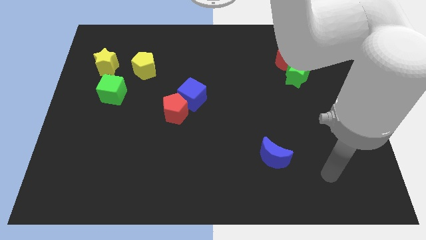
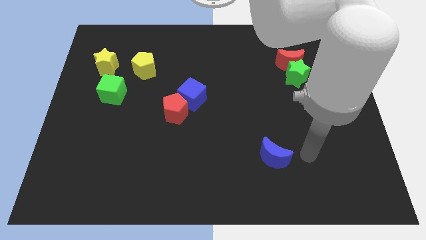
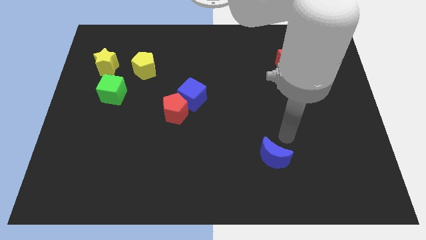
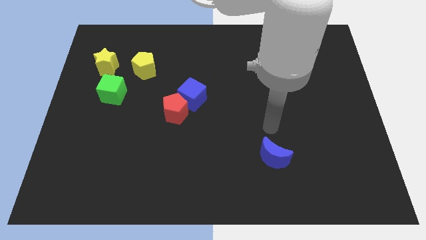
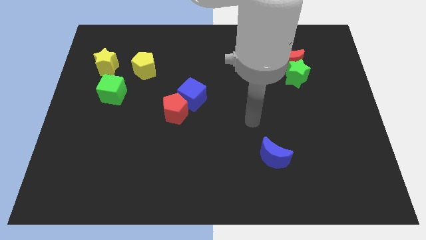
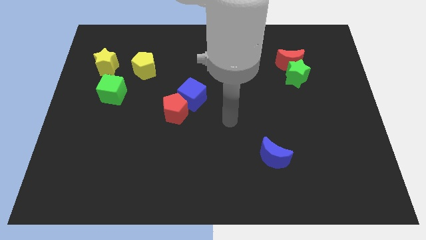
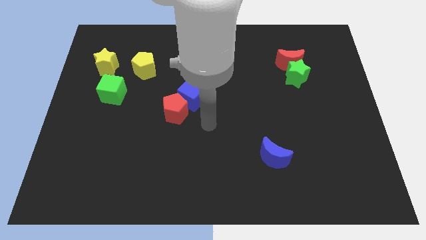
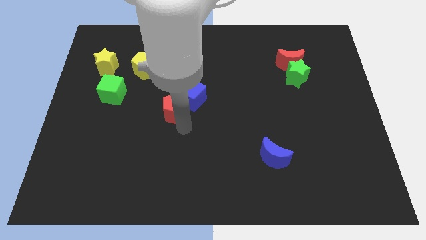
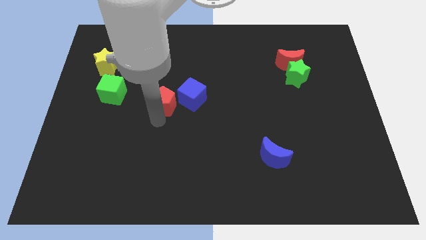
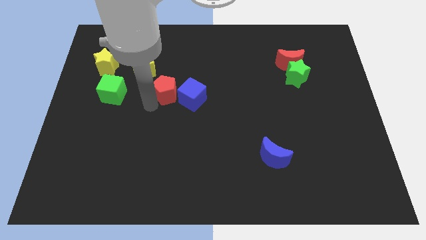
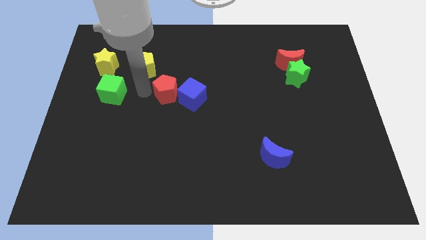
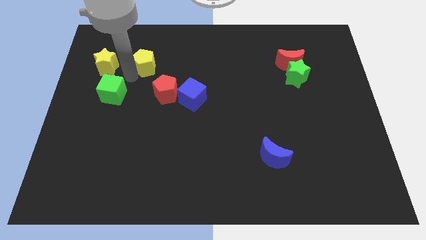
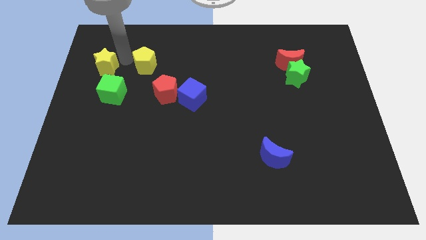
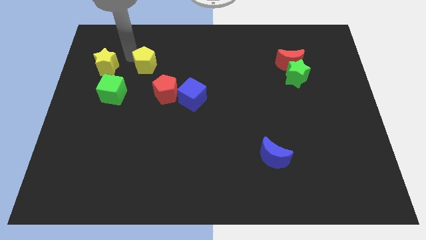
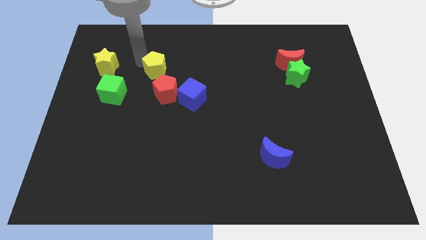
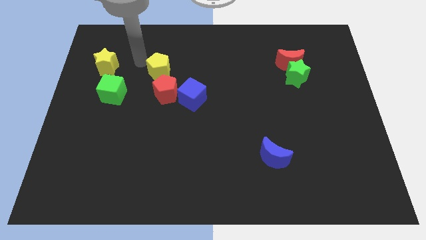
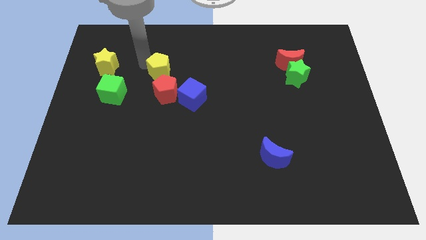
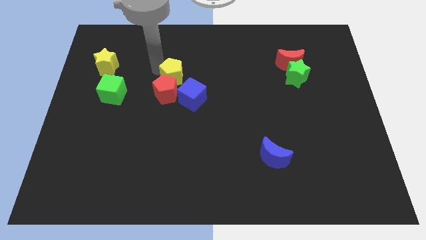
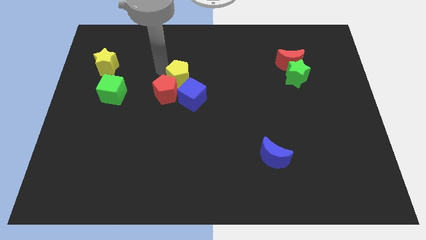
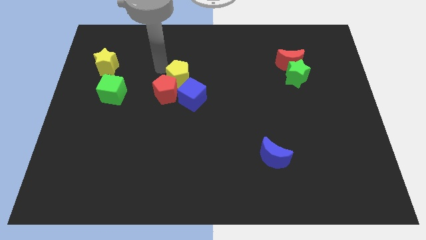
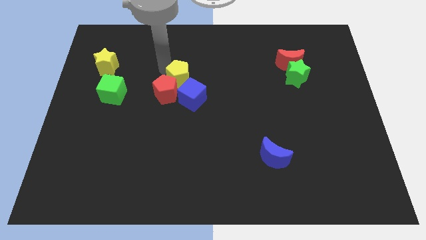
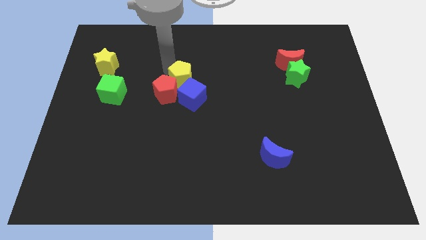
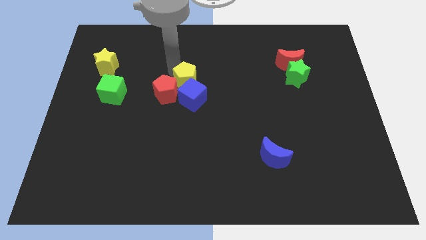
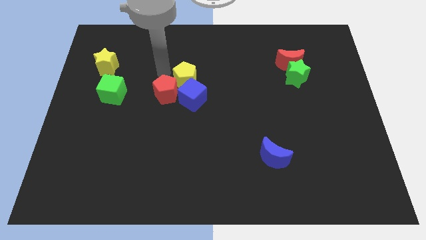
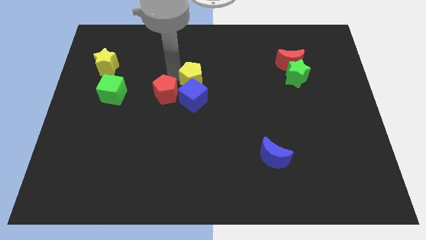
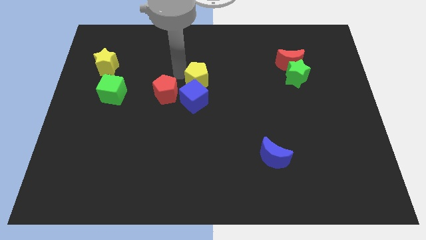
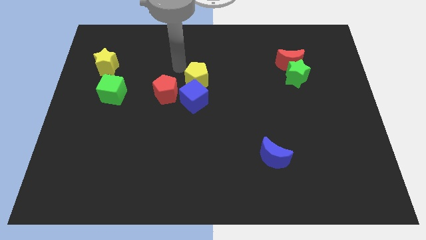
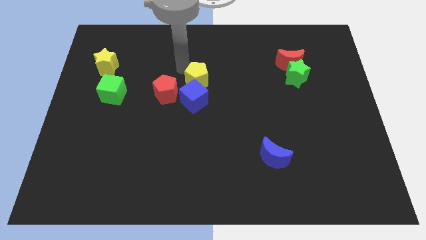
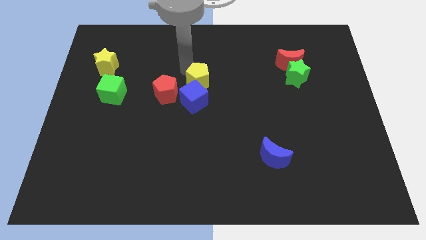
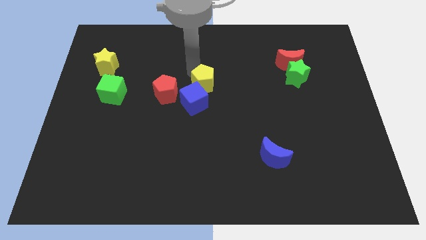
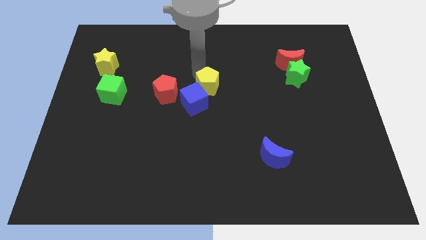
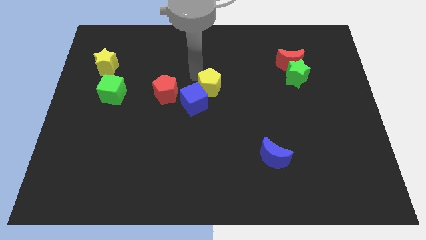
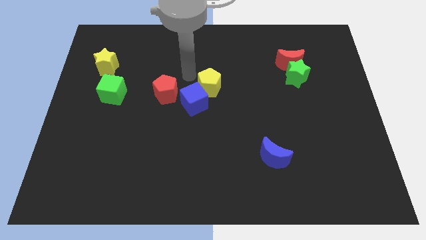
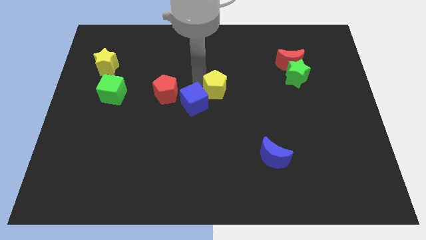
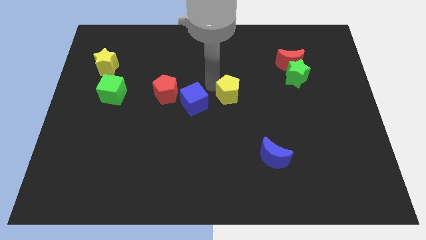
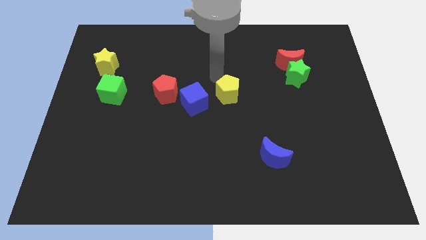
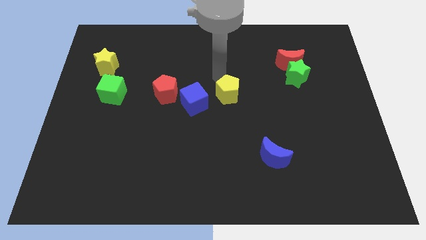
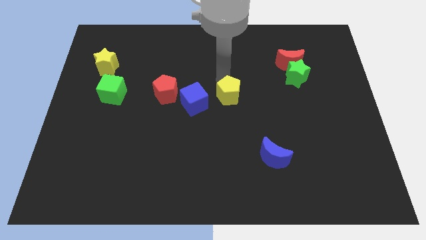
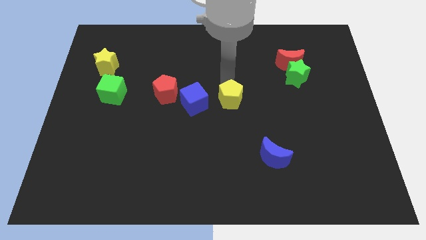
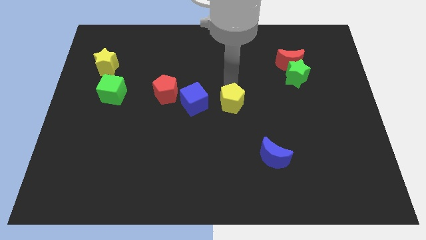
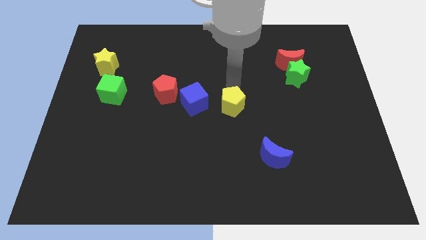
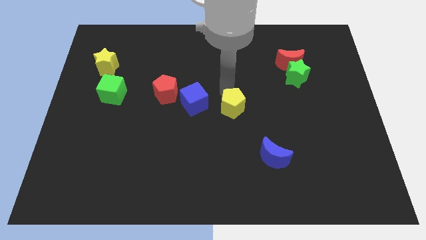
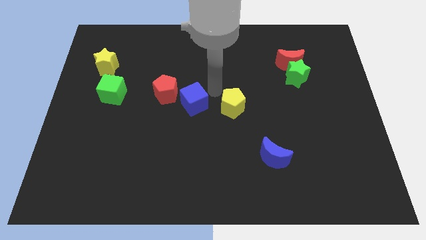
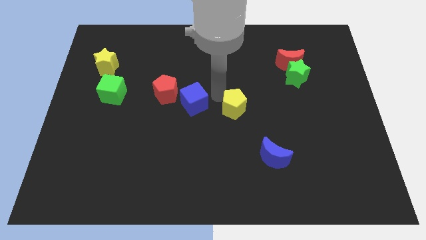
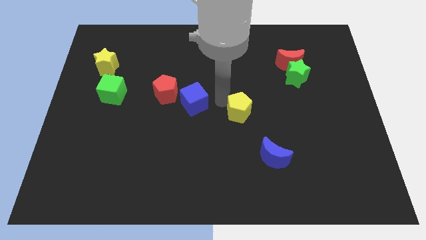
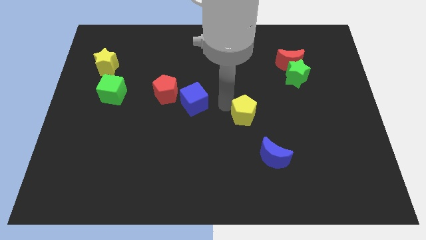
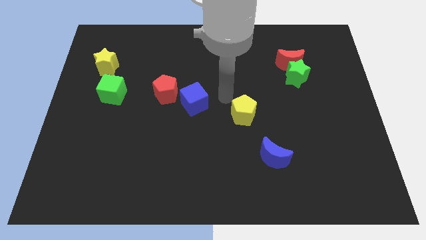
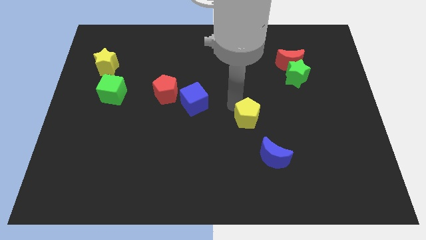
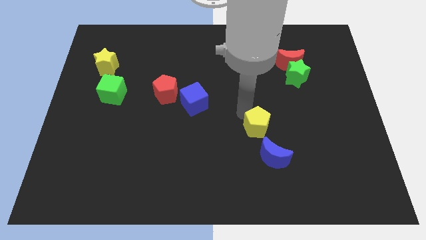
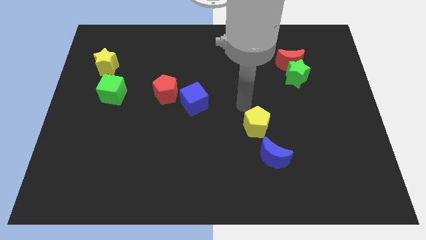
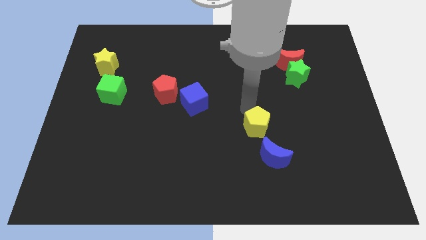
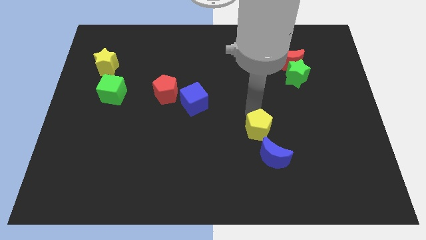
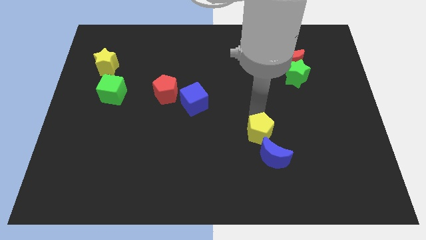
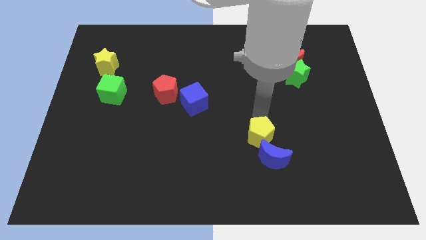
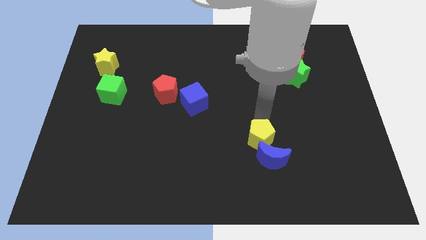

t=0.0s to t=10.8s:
move the yellow pentagon close to the blue moon

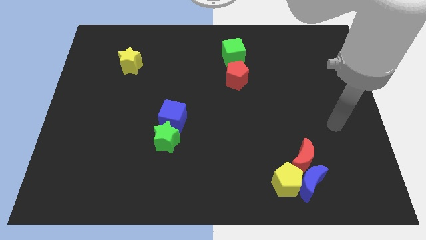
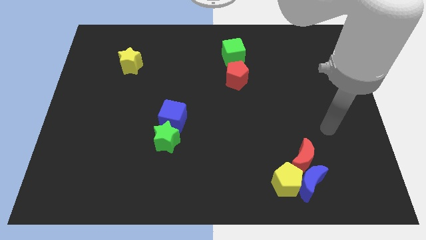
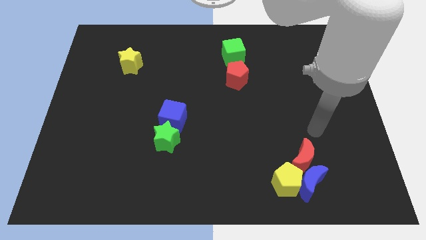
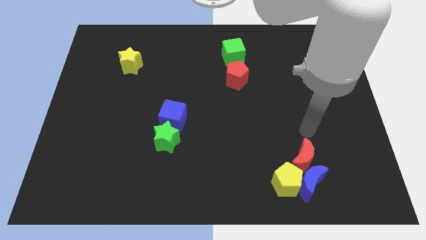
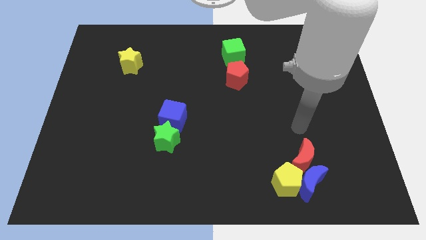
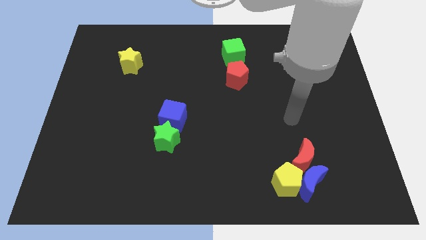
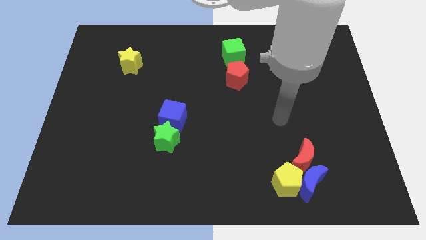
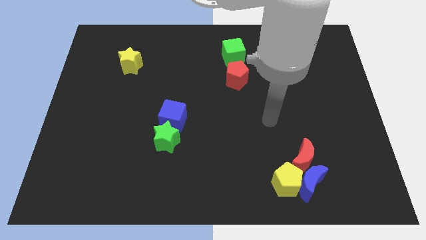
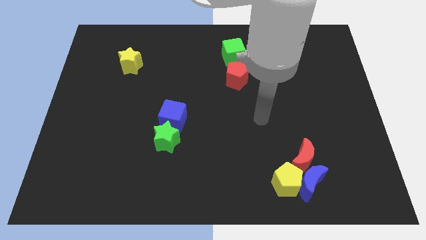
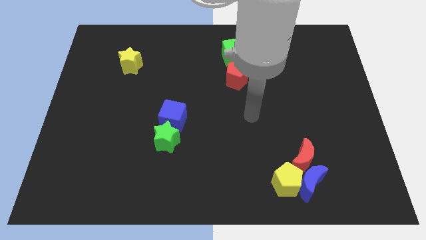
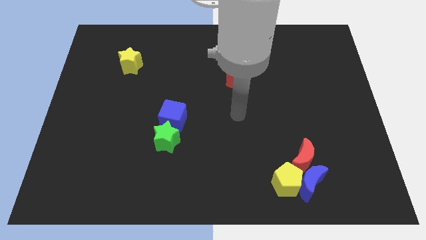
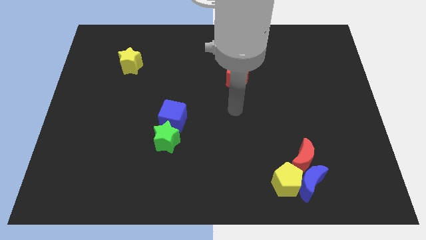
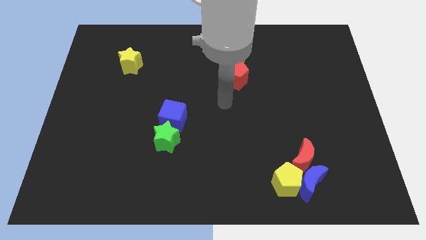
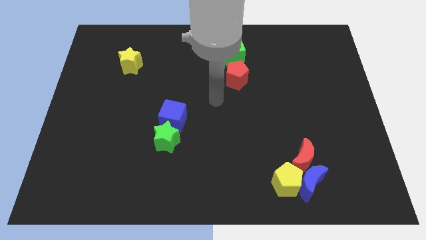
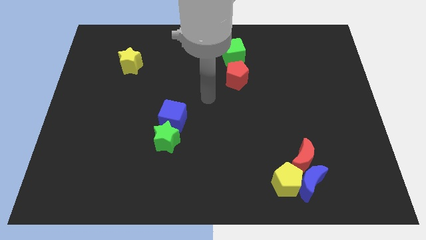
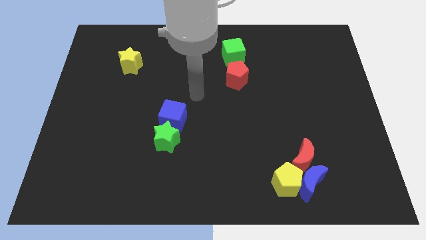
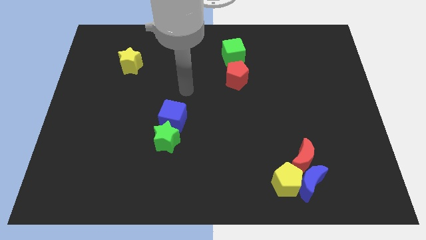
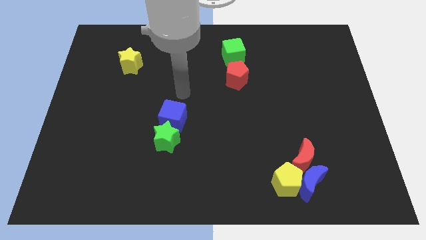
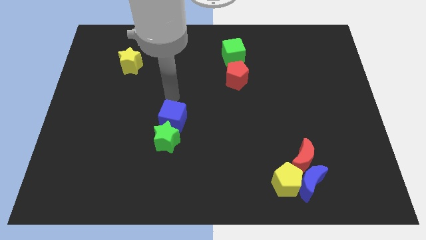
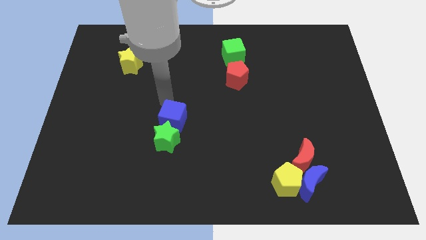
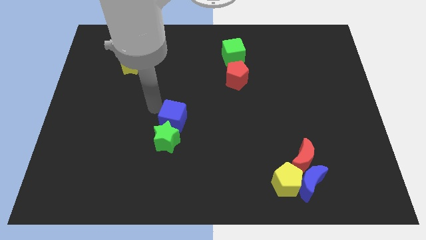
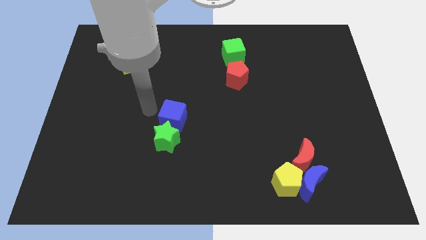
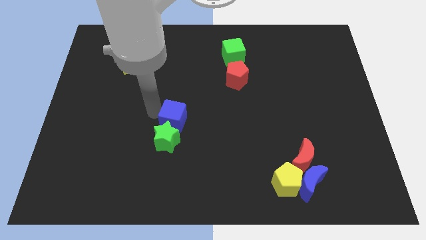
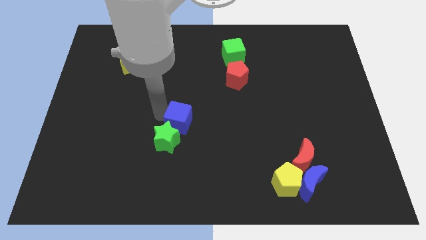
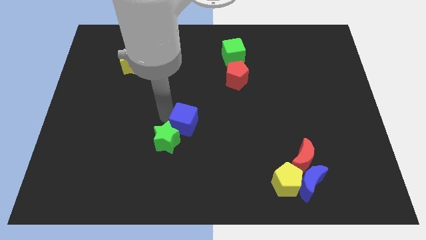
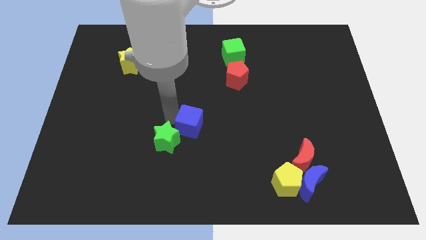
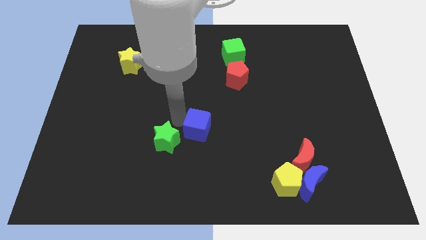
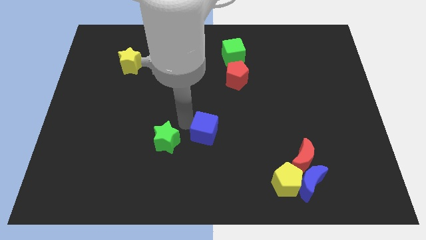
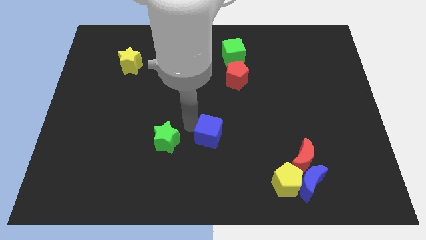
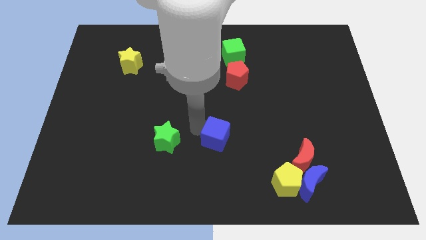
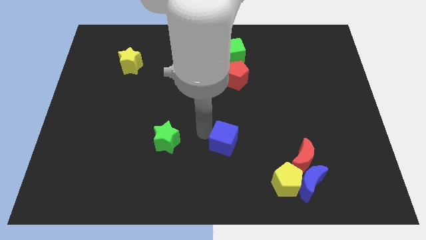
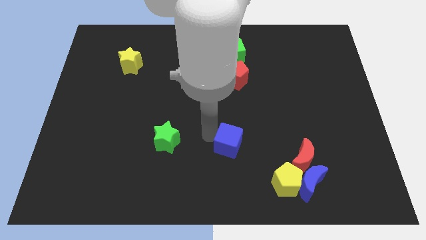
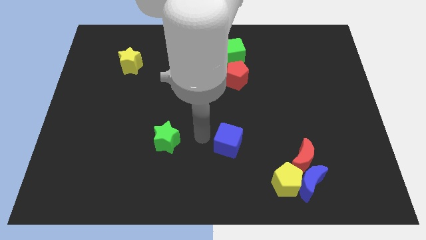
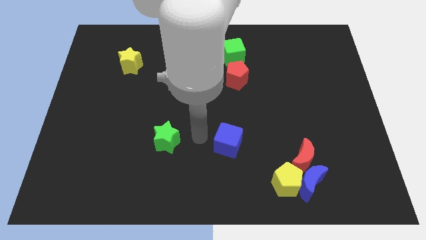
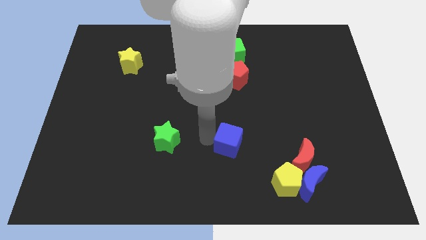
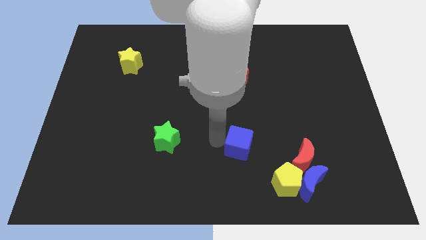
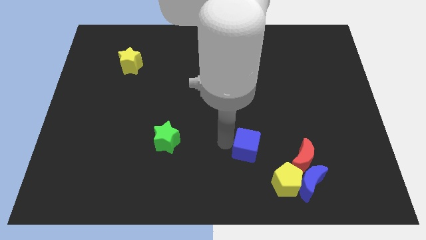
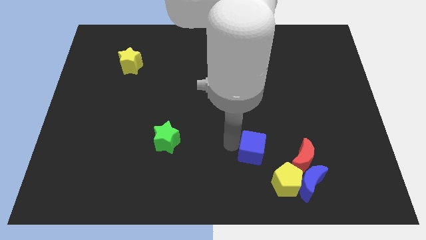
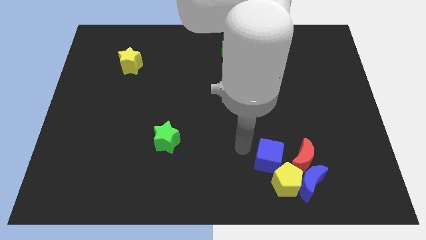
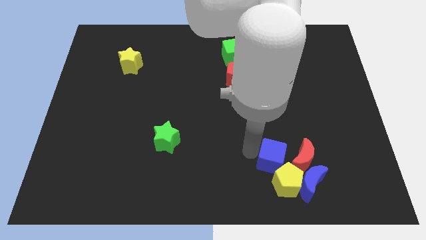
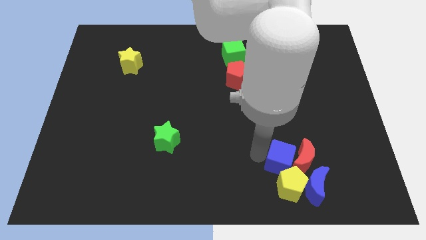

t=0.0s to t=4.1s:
slide the blue cube towards the red moon
